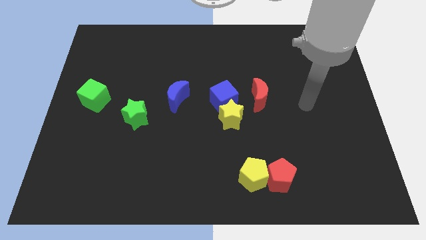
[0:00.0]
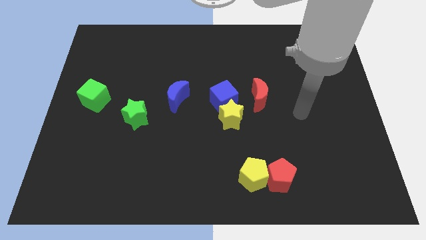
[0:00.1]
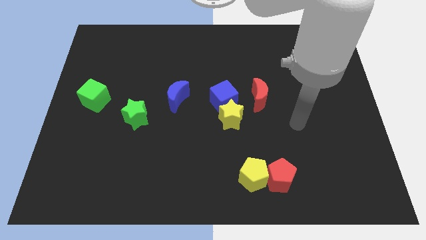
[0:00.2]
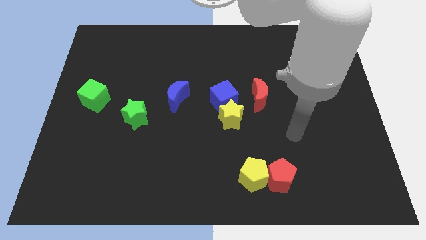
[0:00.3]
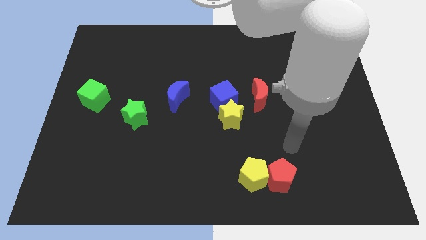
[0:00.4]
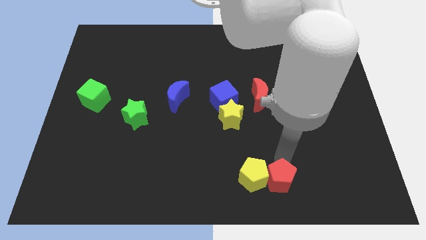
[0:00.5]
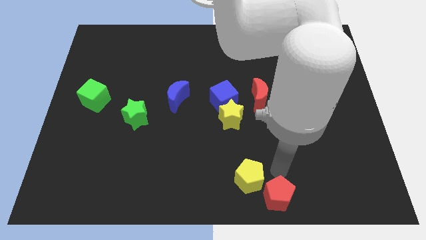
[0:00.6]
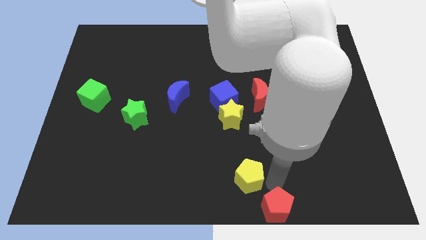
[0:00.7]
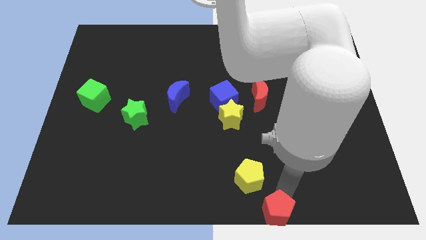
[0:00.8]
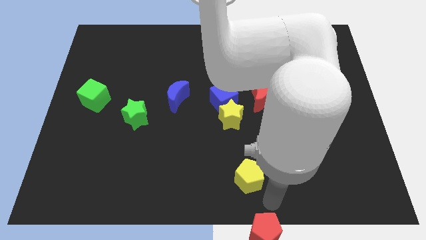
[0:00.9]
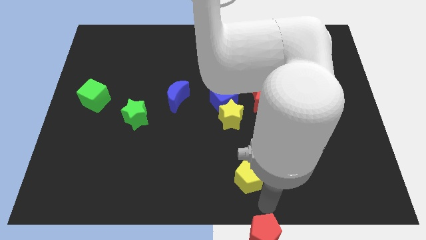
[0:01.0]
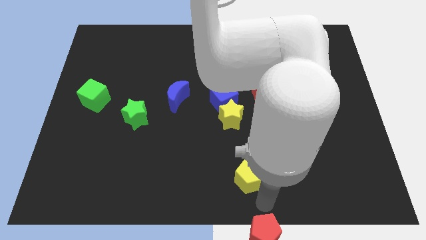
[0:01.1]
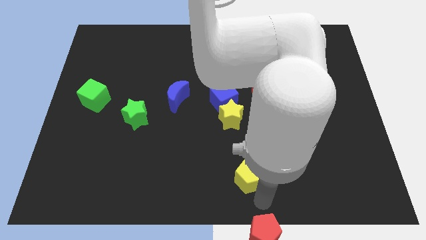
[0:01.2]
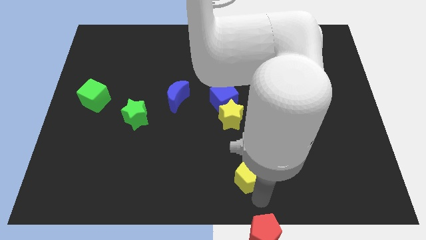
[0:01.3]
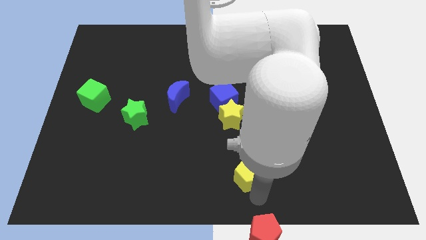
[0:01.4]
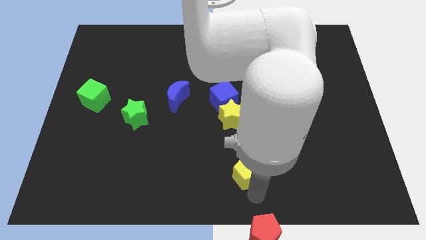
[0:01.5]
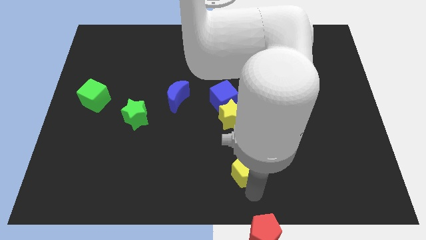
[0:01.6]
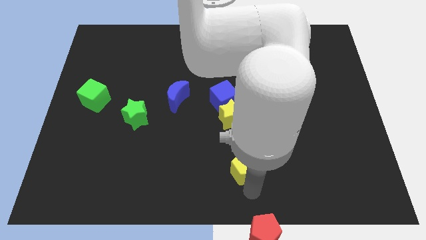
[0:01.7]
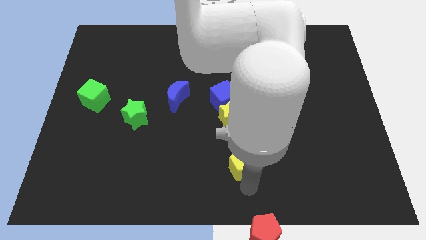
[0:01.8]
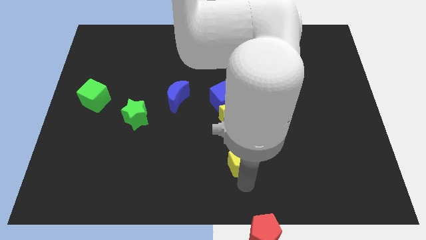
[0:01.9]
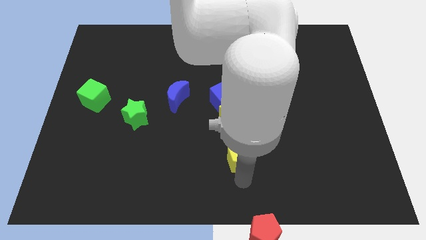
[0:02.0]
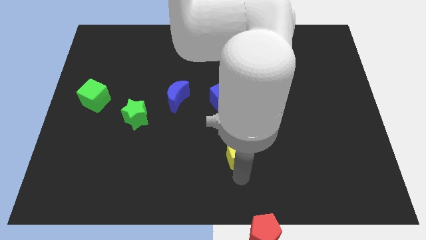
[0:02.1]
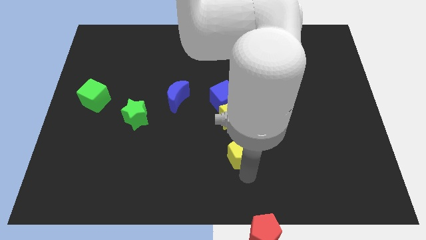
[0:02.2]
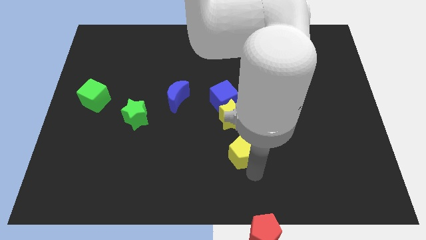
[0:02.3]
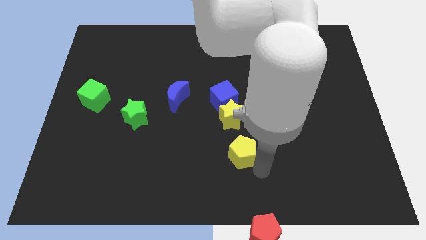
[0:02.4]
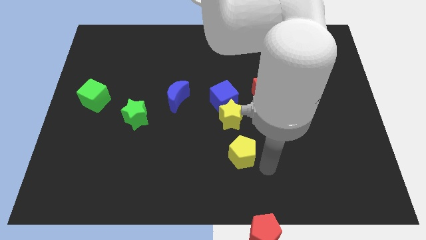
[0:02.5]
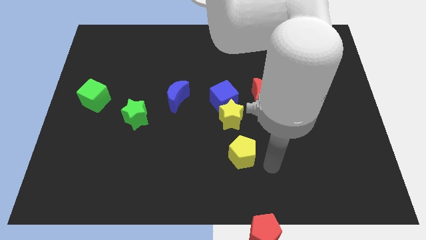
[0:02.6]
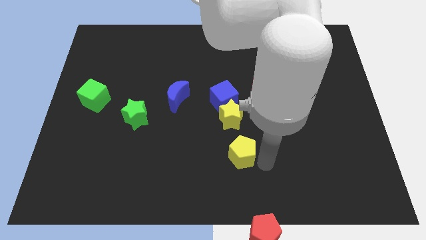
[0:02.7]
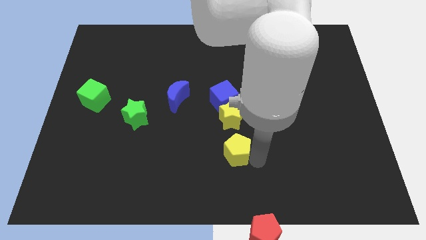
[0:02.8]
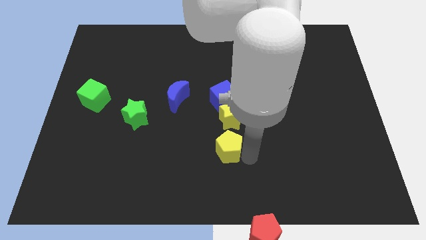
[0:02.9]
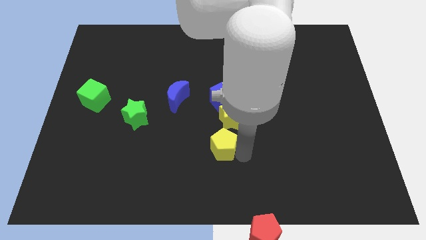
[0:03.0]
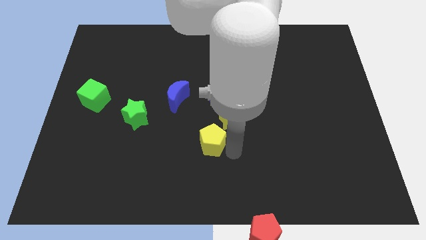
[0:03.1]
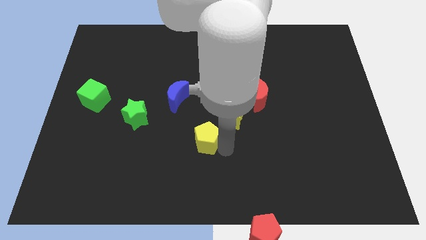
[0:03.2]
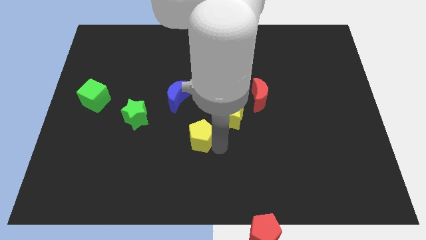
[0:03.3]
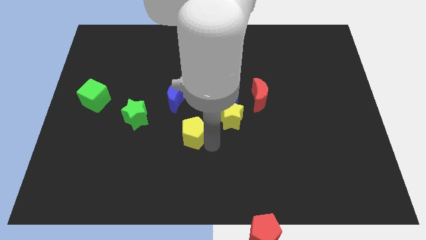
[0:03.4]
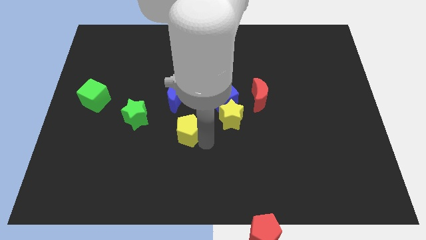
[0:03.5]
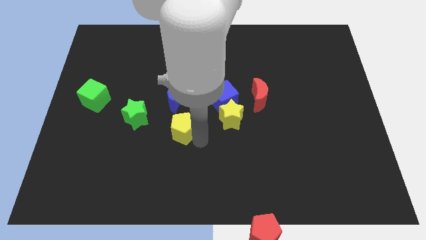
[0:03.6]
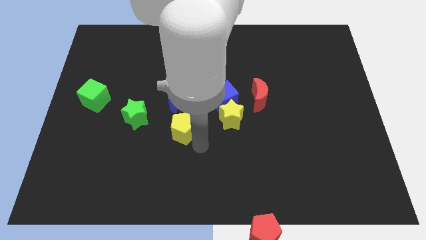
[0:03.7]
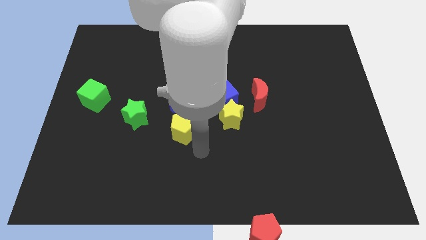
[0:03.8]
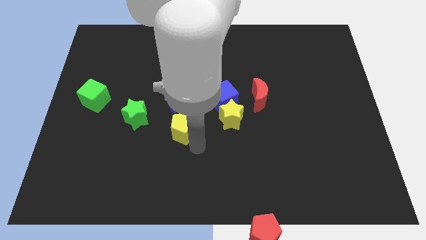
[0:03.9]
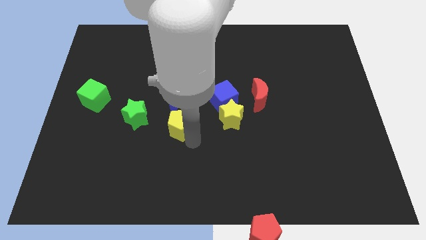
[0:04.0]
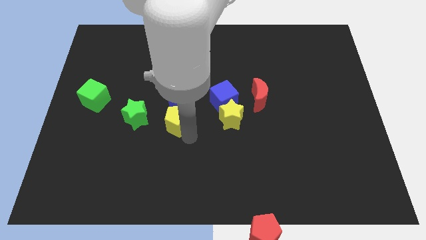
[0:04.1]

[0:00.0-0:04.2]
slide the yellow pentagon upwards and to the left

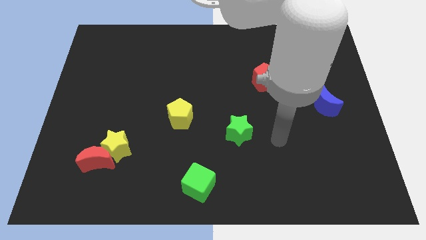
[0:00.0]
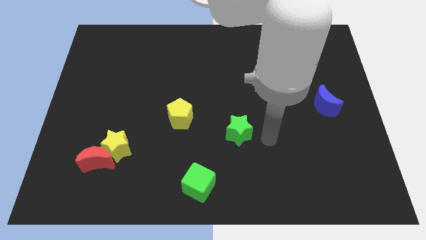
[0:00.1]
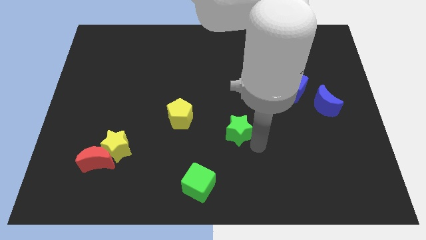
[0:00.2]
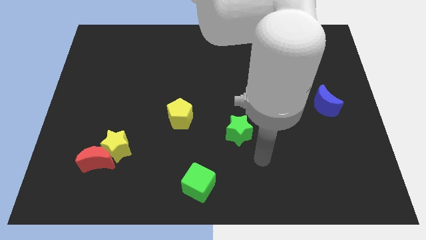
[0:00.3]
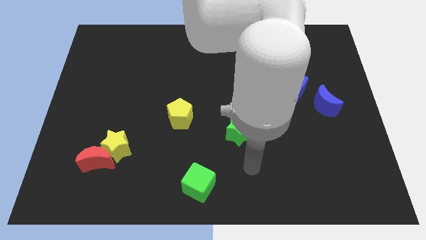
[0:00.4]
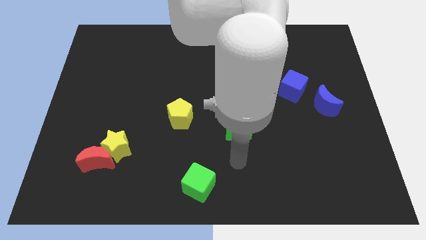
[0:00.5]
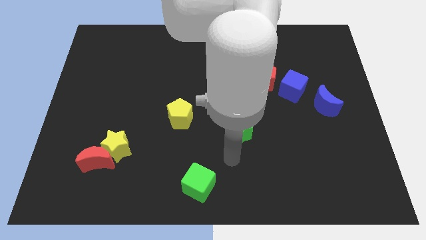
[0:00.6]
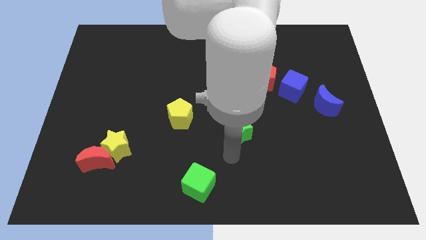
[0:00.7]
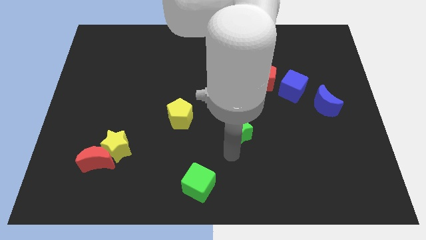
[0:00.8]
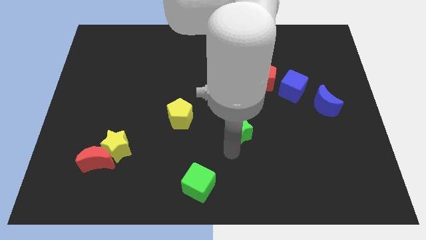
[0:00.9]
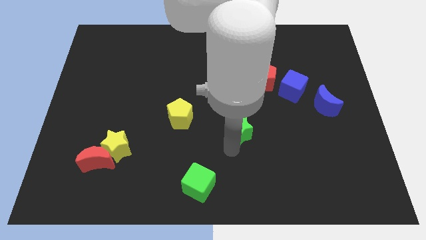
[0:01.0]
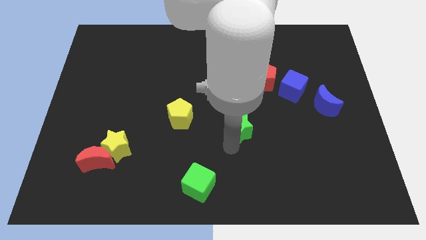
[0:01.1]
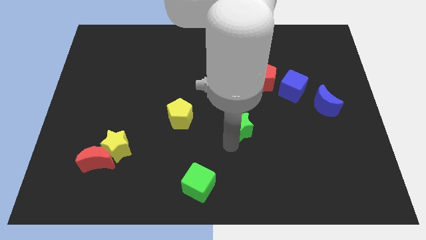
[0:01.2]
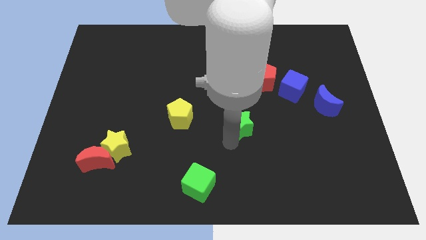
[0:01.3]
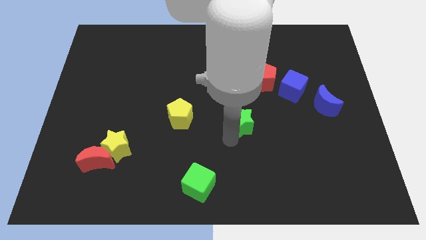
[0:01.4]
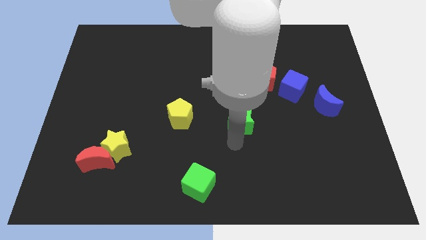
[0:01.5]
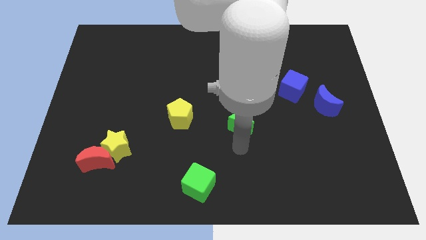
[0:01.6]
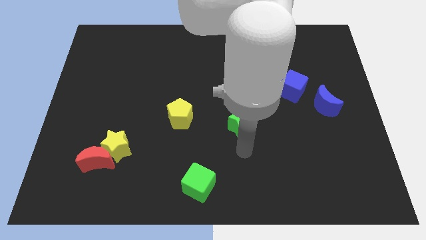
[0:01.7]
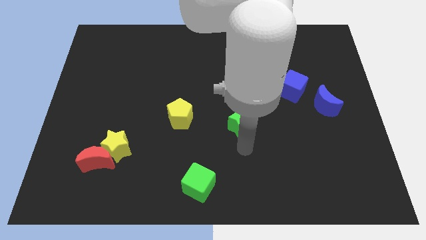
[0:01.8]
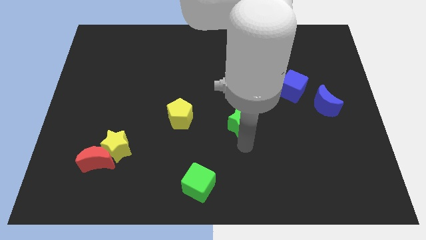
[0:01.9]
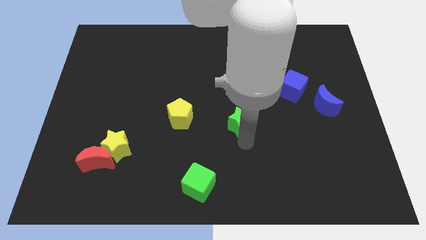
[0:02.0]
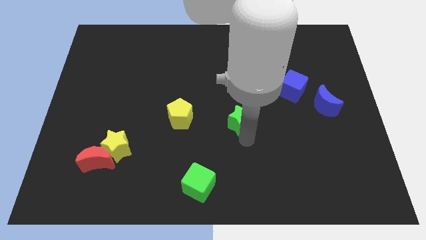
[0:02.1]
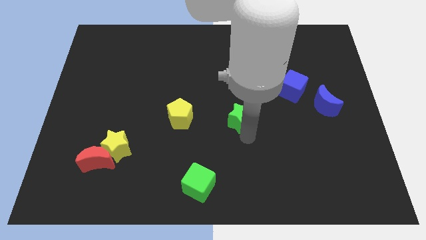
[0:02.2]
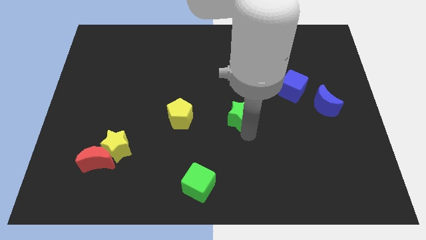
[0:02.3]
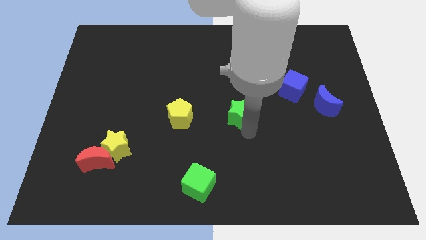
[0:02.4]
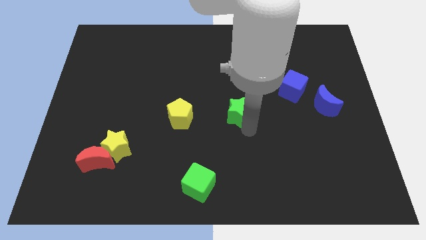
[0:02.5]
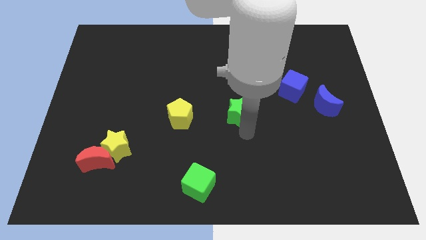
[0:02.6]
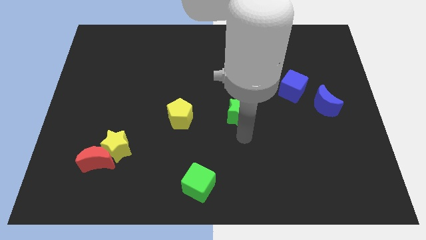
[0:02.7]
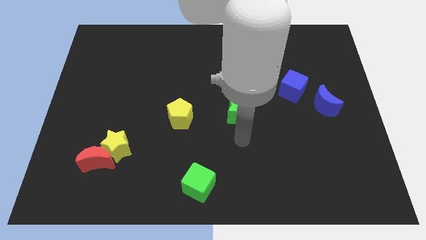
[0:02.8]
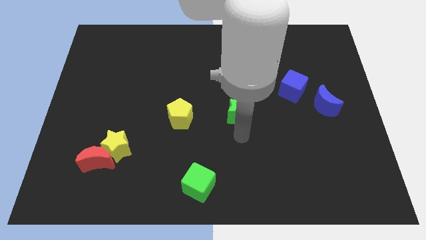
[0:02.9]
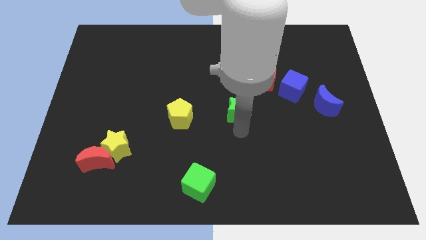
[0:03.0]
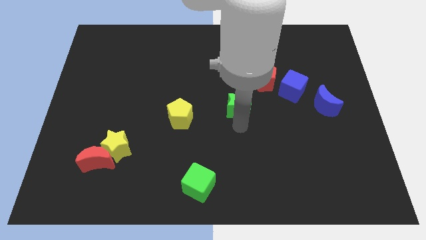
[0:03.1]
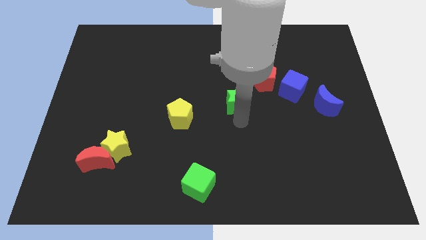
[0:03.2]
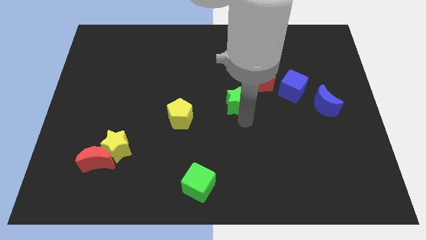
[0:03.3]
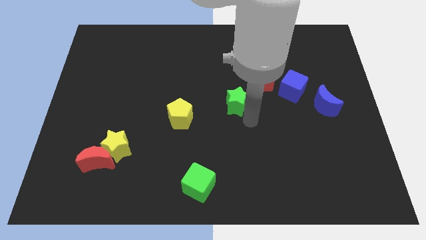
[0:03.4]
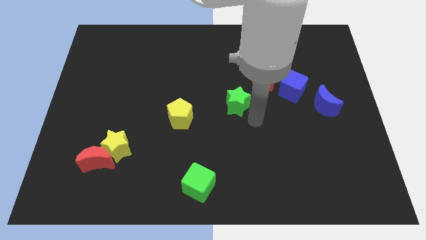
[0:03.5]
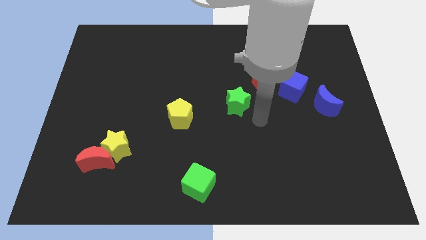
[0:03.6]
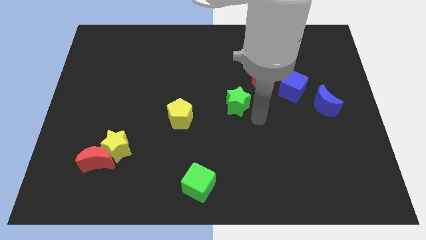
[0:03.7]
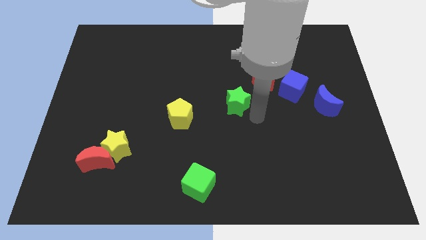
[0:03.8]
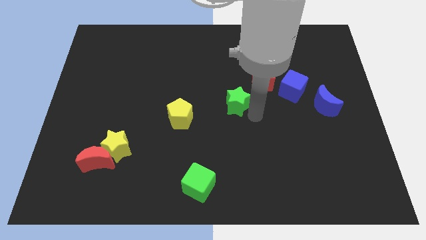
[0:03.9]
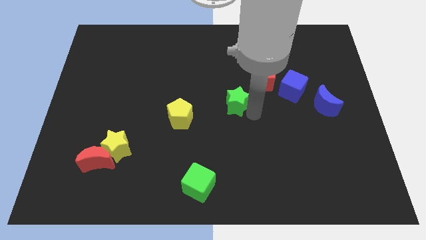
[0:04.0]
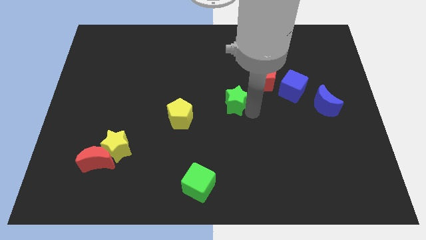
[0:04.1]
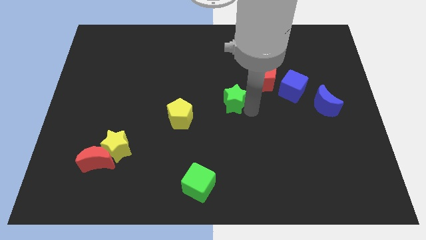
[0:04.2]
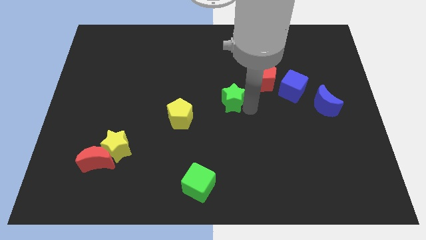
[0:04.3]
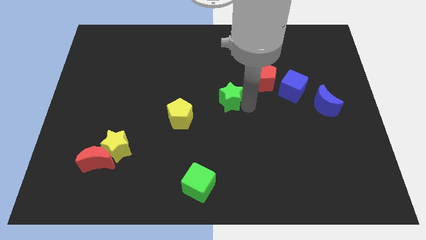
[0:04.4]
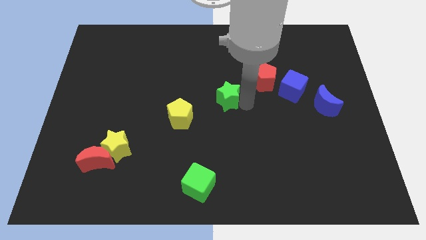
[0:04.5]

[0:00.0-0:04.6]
move the green star a little up and then left
